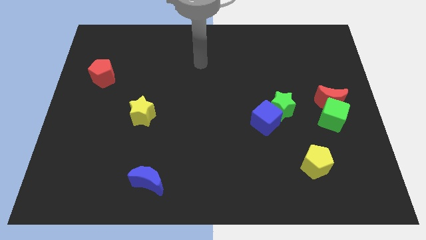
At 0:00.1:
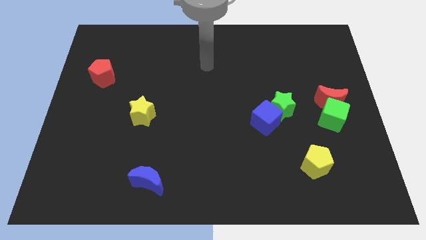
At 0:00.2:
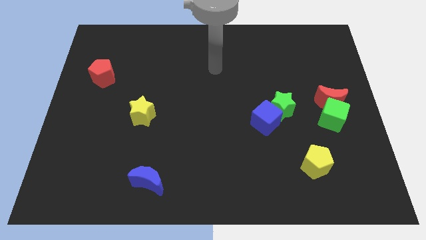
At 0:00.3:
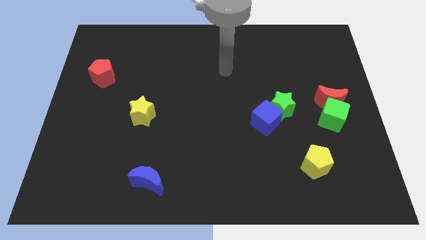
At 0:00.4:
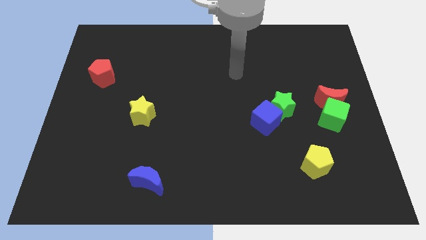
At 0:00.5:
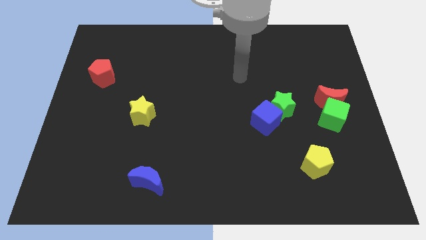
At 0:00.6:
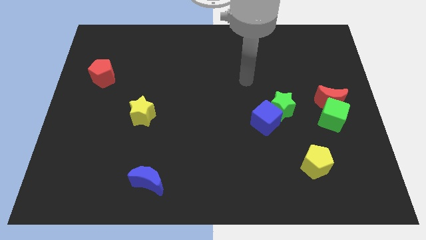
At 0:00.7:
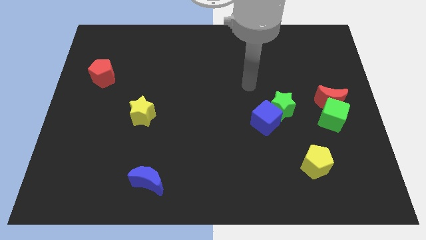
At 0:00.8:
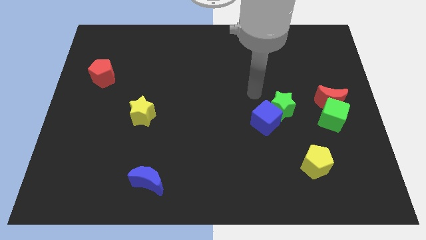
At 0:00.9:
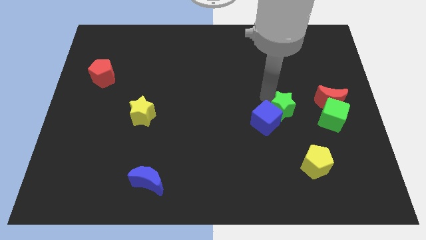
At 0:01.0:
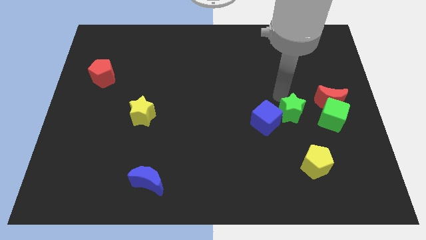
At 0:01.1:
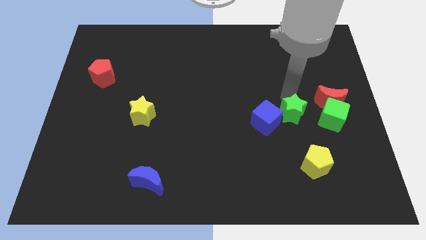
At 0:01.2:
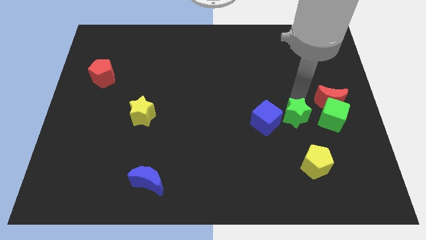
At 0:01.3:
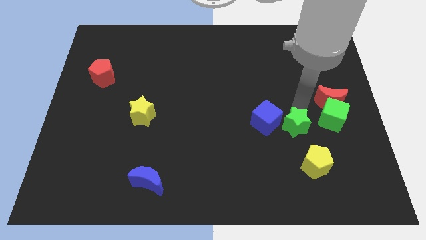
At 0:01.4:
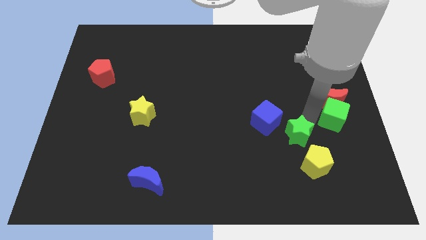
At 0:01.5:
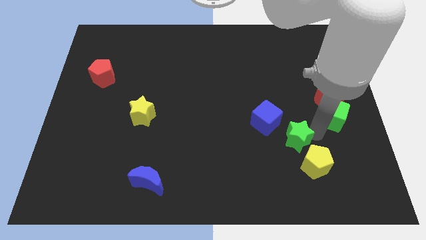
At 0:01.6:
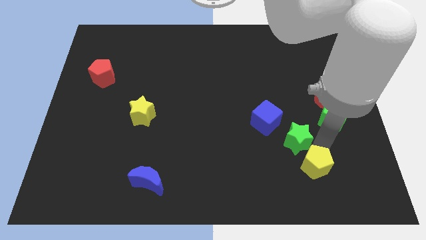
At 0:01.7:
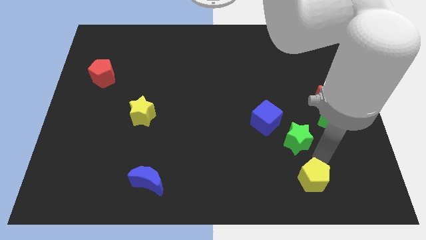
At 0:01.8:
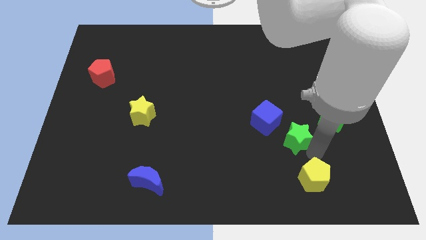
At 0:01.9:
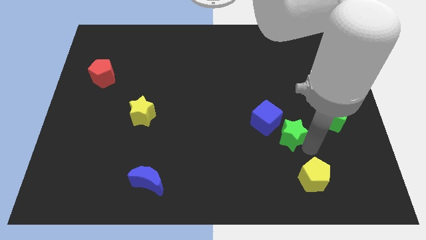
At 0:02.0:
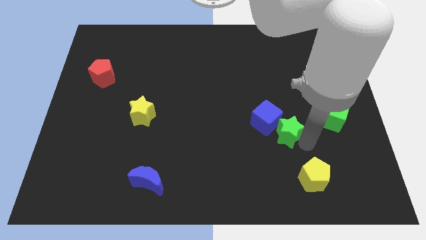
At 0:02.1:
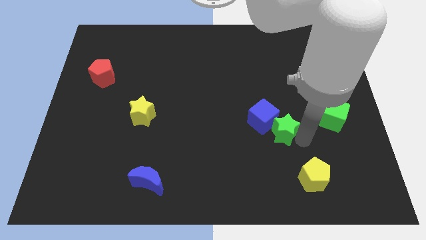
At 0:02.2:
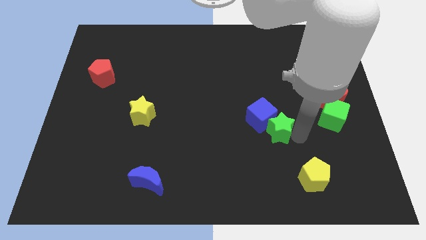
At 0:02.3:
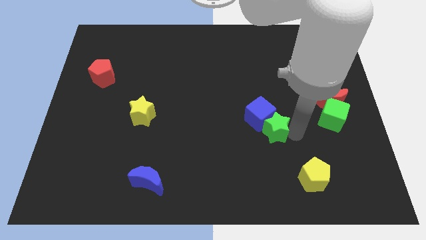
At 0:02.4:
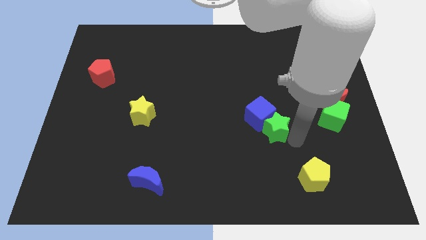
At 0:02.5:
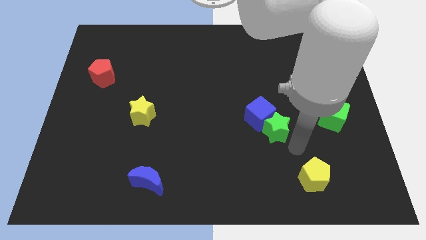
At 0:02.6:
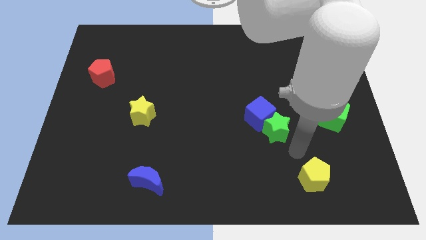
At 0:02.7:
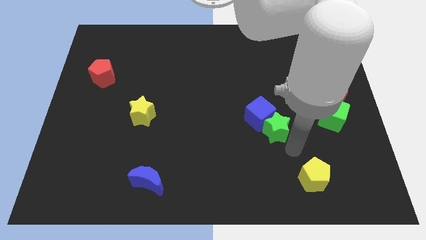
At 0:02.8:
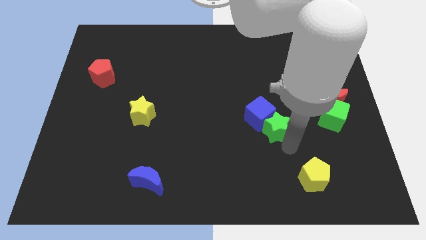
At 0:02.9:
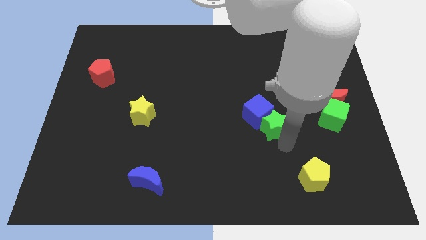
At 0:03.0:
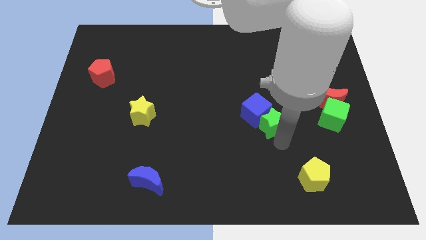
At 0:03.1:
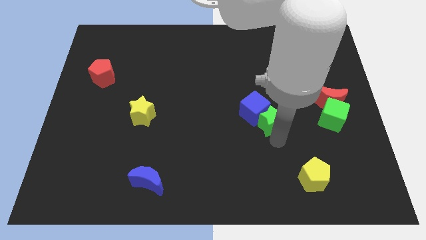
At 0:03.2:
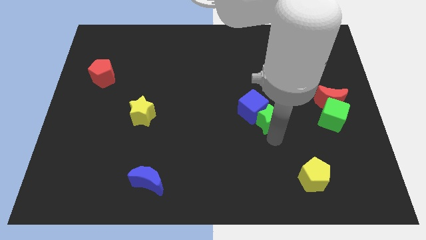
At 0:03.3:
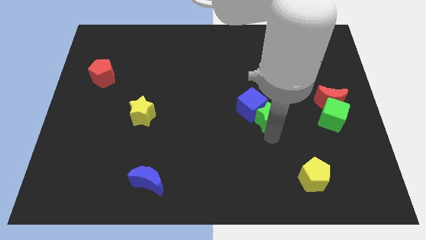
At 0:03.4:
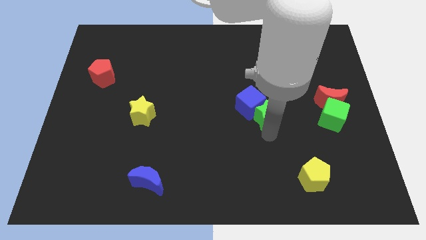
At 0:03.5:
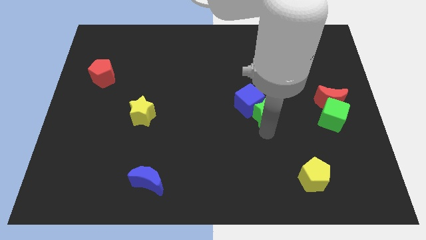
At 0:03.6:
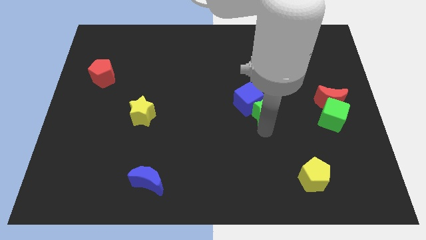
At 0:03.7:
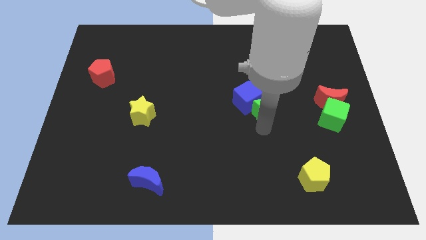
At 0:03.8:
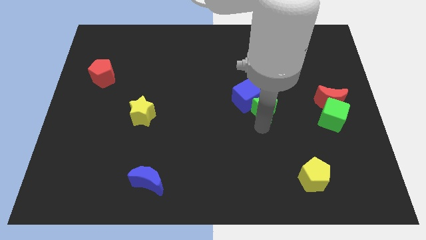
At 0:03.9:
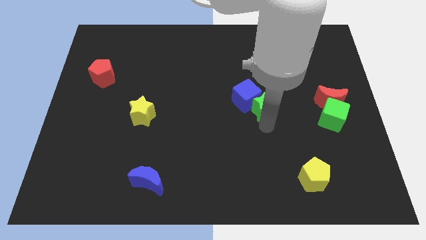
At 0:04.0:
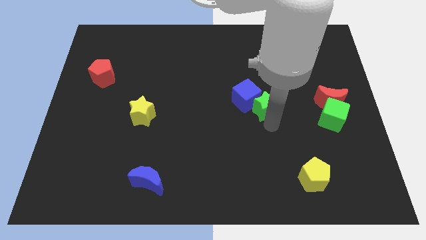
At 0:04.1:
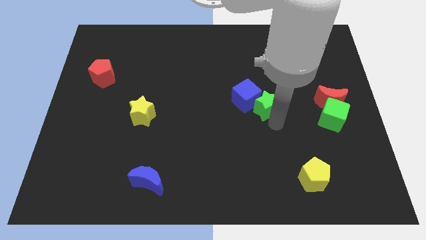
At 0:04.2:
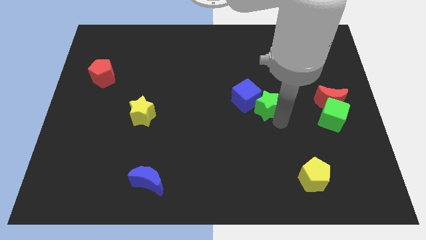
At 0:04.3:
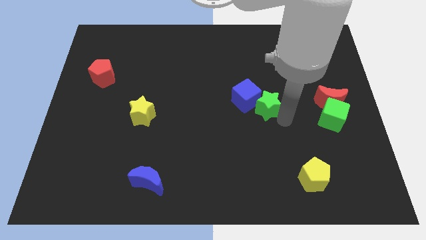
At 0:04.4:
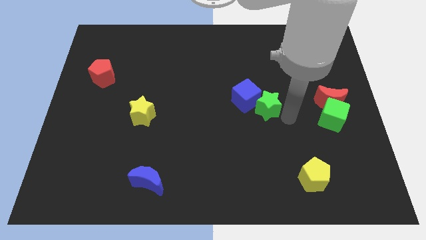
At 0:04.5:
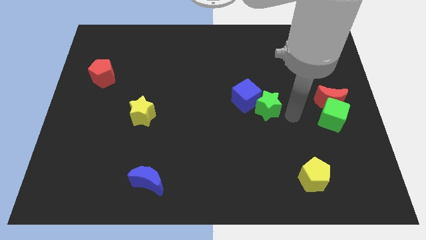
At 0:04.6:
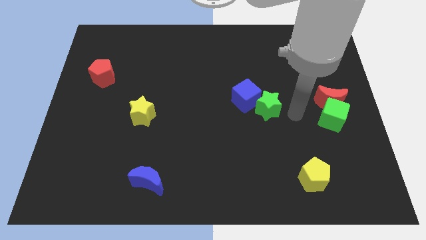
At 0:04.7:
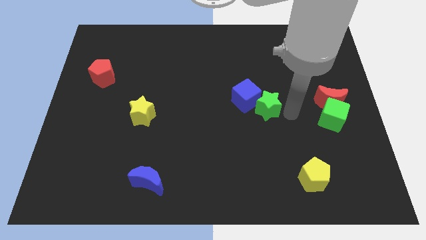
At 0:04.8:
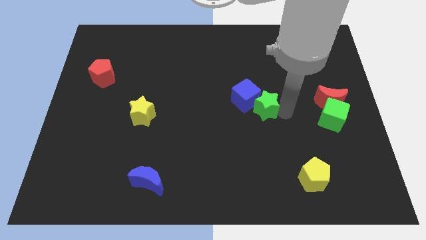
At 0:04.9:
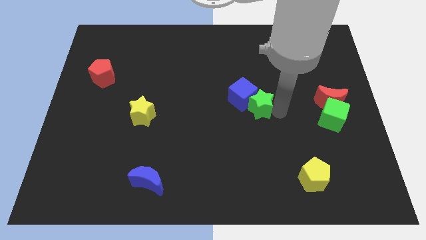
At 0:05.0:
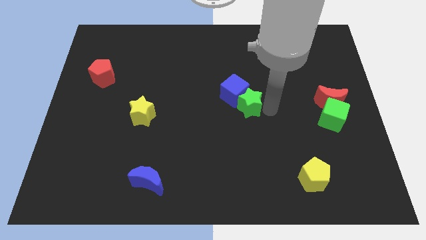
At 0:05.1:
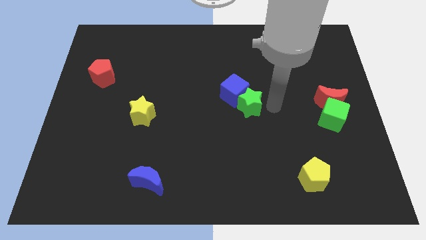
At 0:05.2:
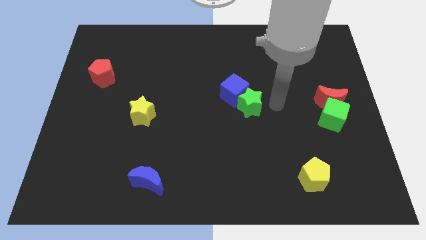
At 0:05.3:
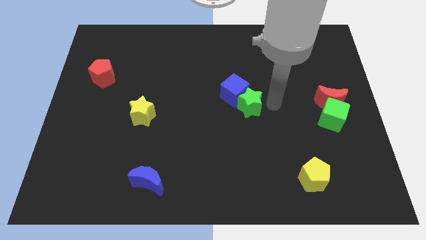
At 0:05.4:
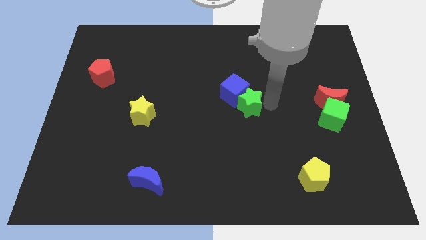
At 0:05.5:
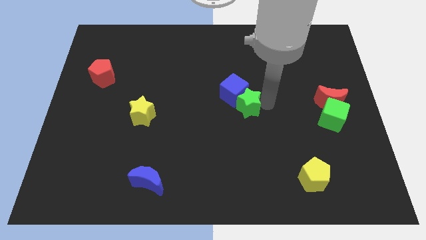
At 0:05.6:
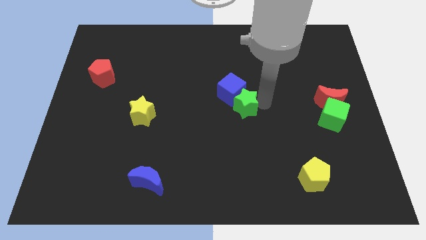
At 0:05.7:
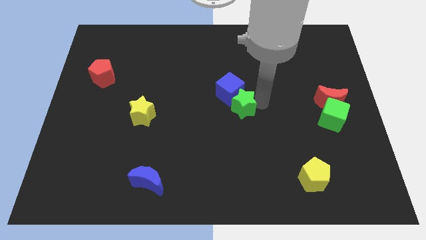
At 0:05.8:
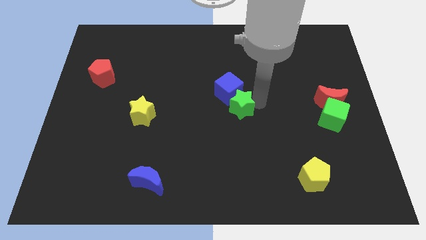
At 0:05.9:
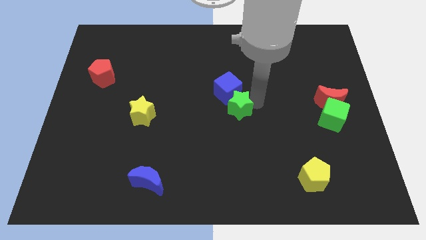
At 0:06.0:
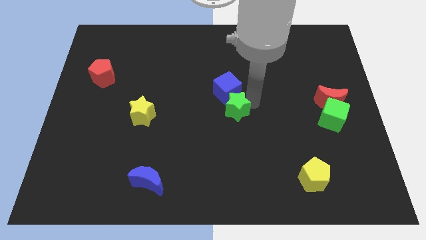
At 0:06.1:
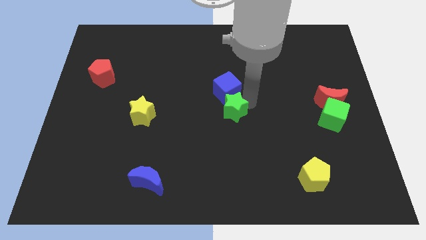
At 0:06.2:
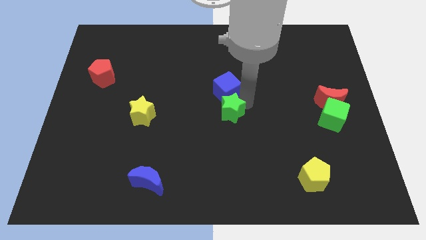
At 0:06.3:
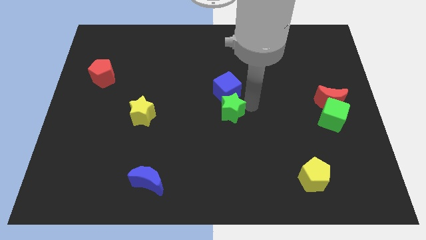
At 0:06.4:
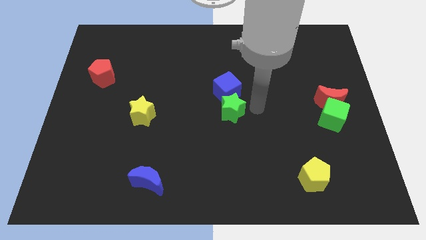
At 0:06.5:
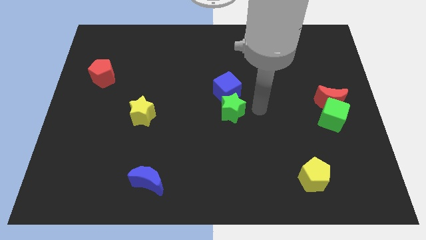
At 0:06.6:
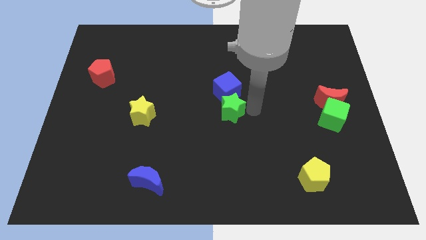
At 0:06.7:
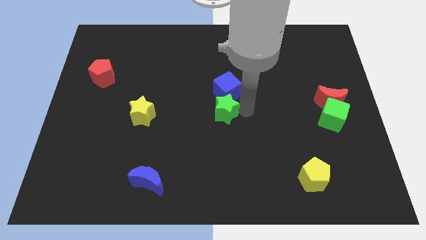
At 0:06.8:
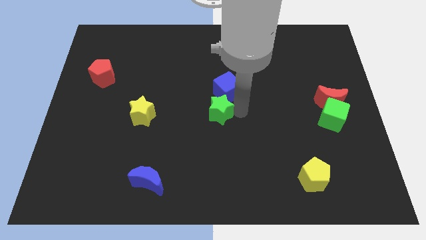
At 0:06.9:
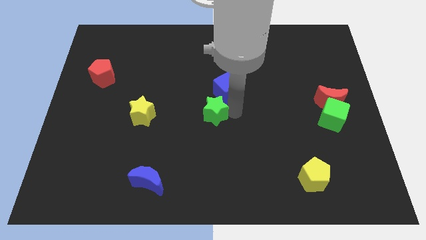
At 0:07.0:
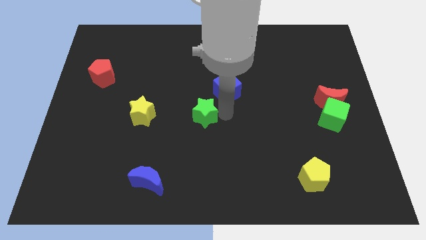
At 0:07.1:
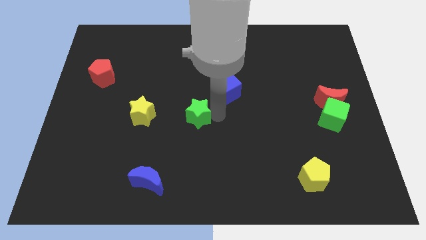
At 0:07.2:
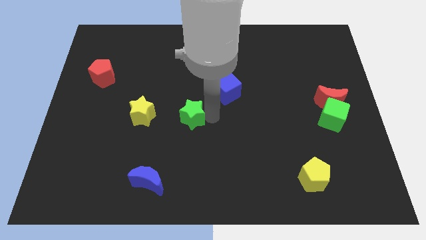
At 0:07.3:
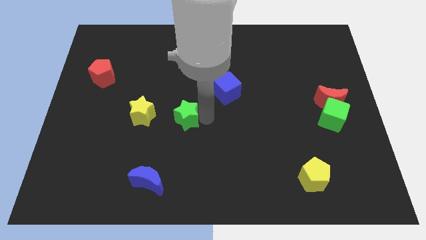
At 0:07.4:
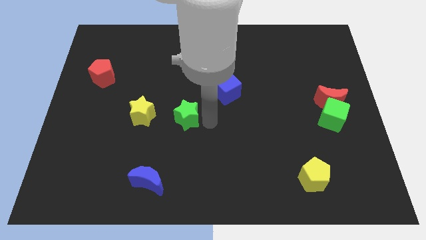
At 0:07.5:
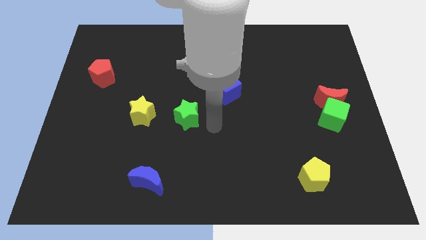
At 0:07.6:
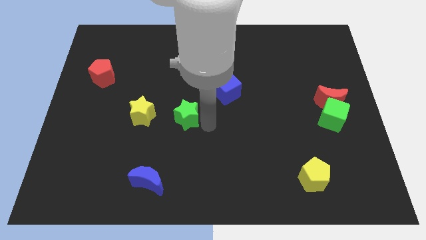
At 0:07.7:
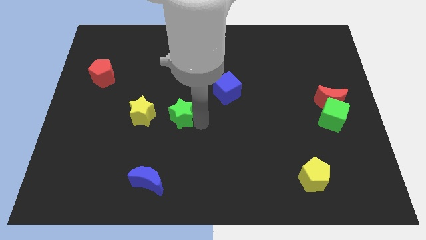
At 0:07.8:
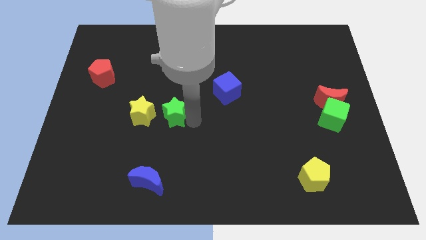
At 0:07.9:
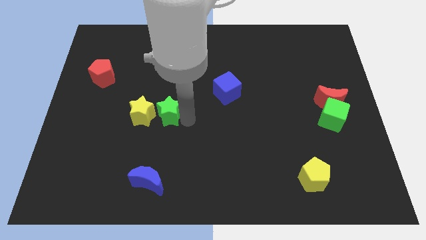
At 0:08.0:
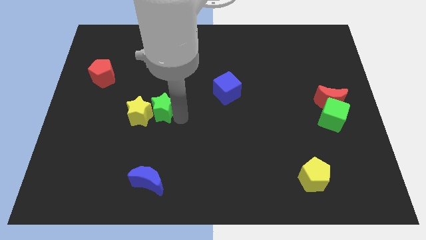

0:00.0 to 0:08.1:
slide the green star next to the yellow star
